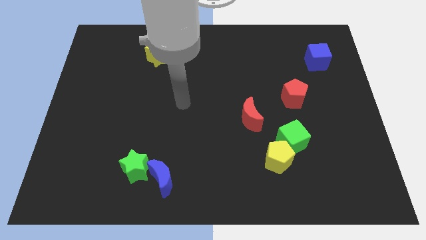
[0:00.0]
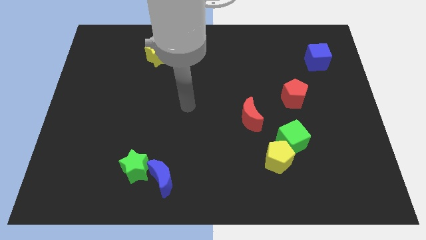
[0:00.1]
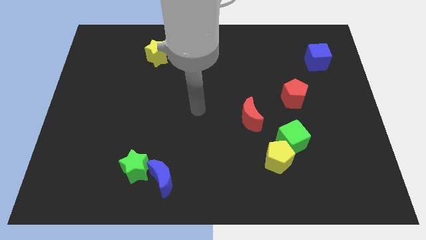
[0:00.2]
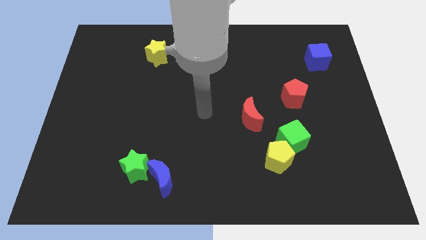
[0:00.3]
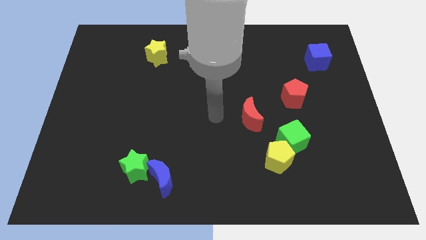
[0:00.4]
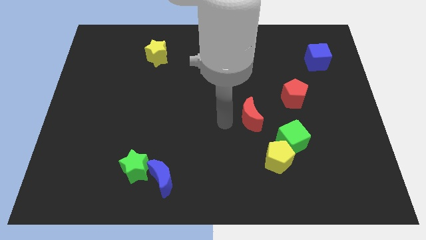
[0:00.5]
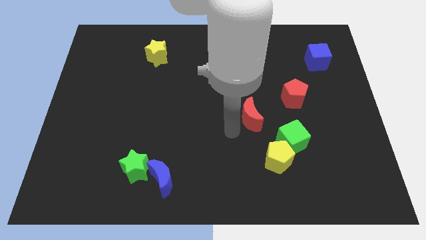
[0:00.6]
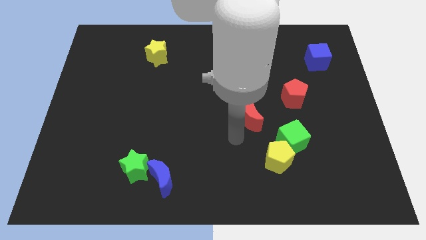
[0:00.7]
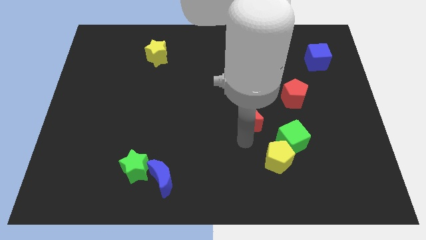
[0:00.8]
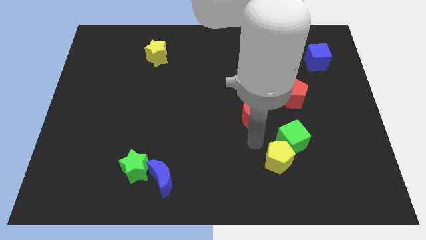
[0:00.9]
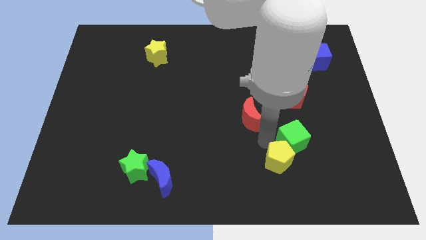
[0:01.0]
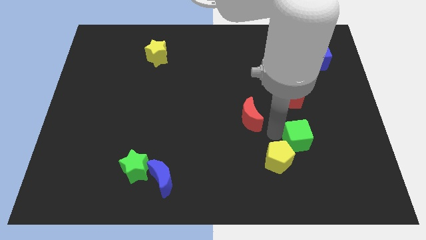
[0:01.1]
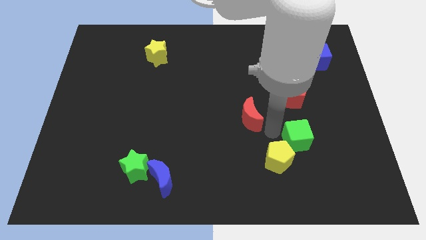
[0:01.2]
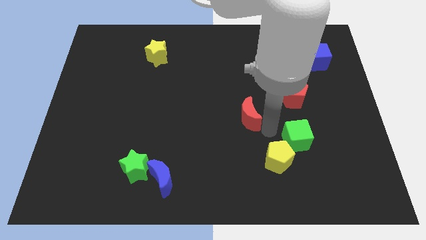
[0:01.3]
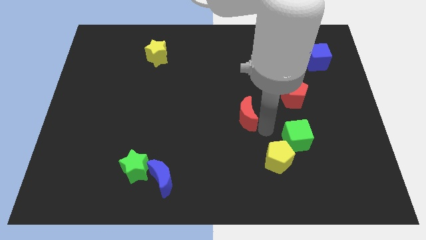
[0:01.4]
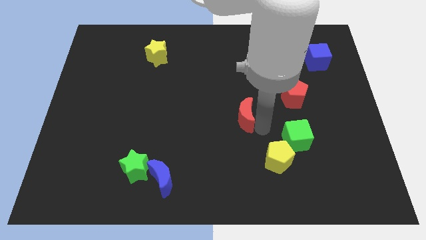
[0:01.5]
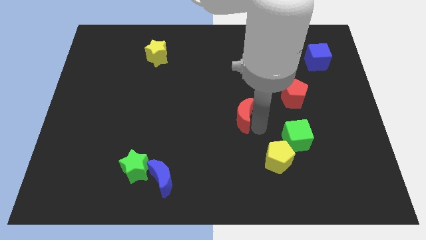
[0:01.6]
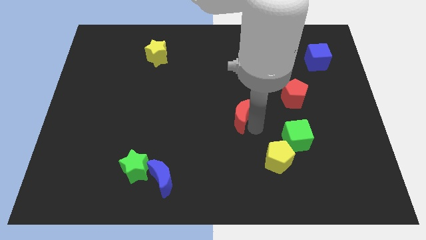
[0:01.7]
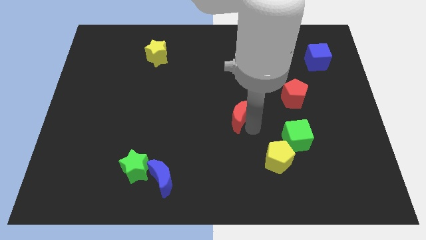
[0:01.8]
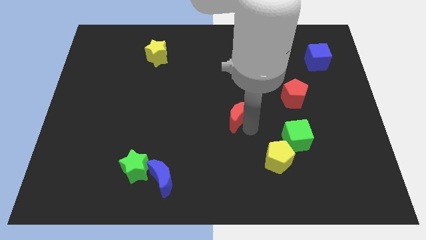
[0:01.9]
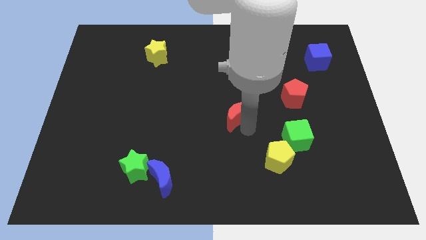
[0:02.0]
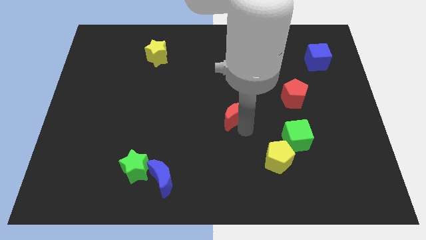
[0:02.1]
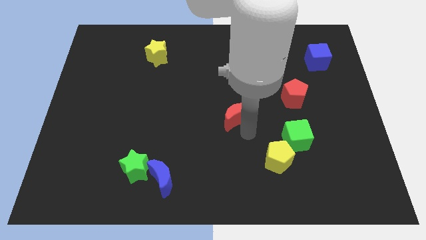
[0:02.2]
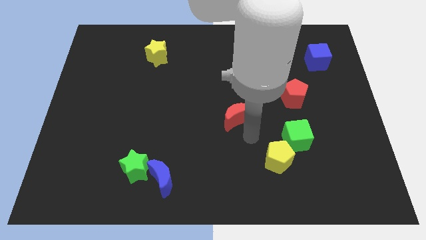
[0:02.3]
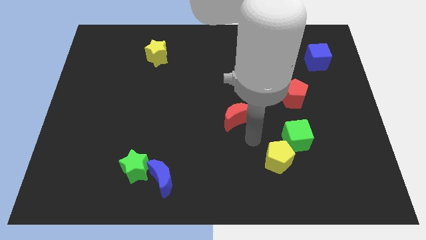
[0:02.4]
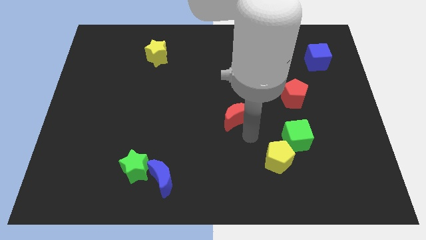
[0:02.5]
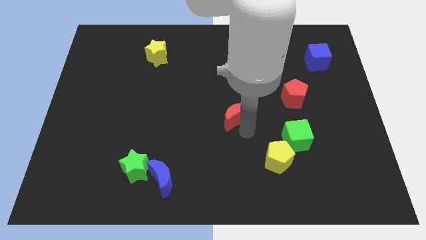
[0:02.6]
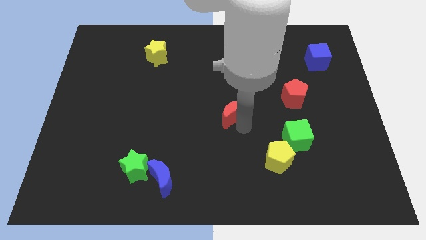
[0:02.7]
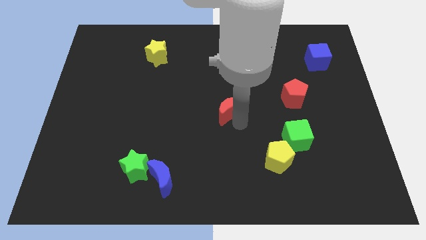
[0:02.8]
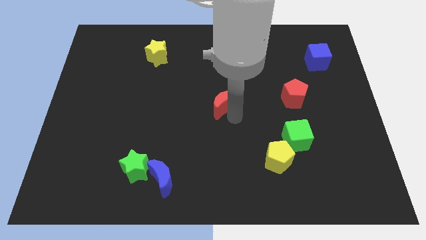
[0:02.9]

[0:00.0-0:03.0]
slightly slide the red moon upwards and to the left

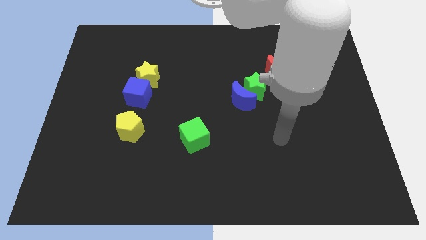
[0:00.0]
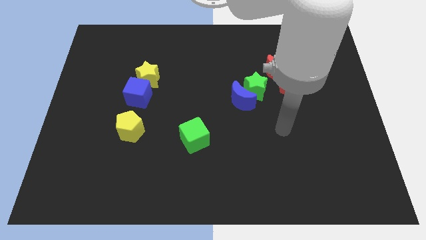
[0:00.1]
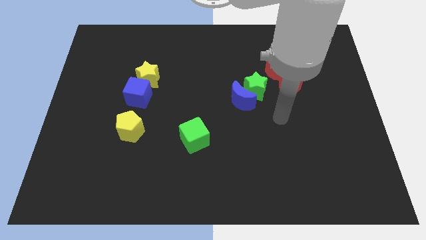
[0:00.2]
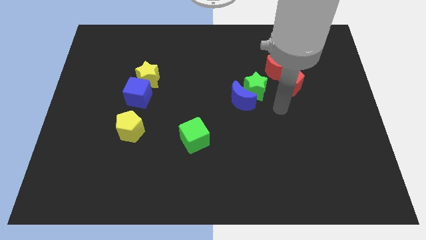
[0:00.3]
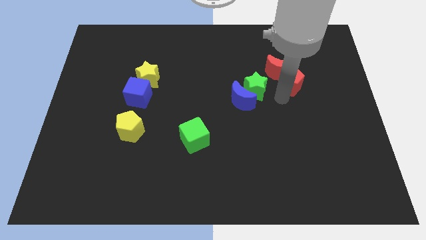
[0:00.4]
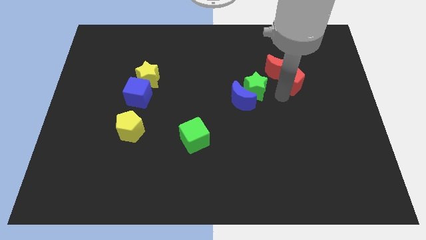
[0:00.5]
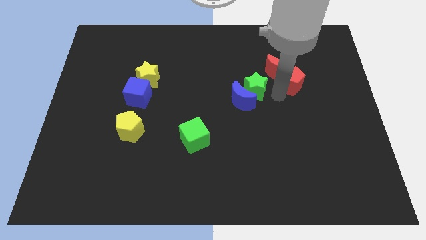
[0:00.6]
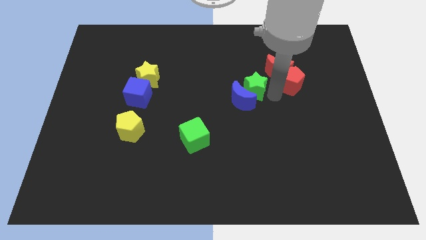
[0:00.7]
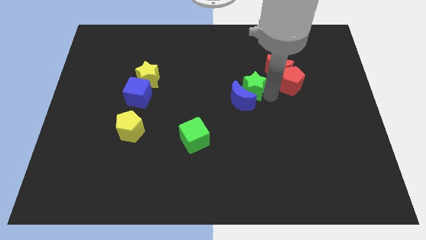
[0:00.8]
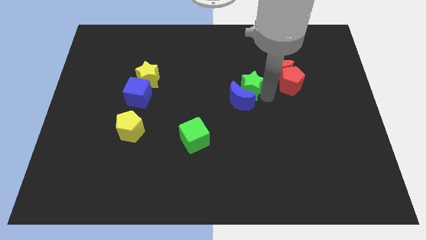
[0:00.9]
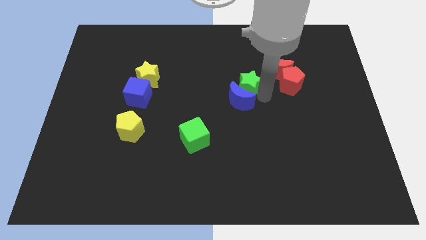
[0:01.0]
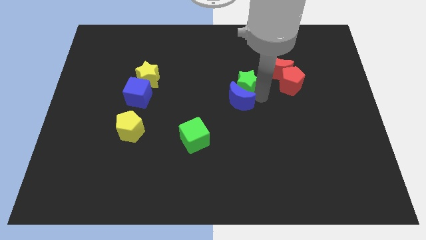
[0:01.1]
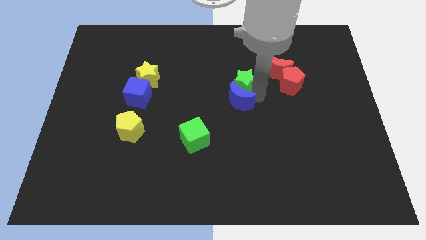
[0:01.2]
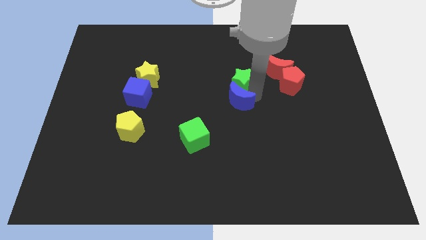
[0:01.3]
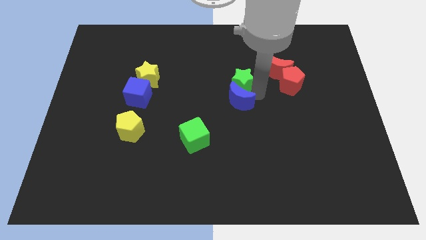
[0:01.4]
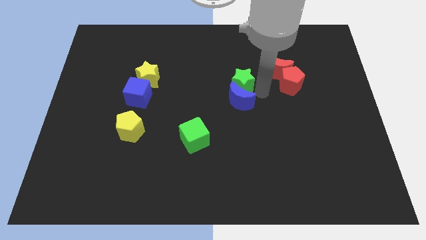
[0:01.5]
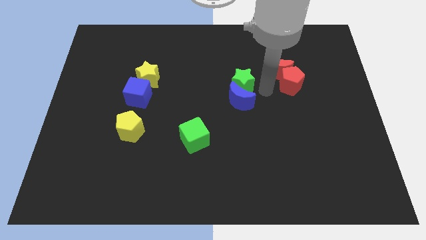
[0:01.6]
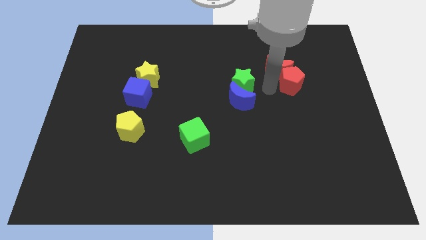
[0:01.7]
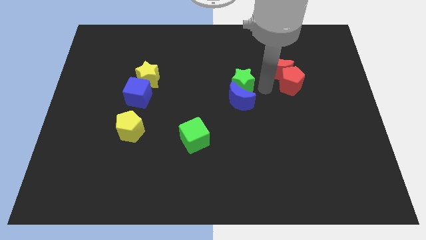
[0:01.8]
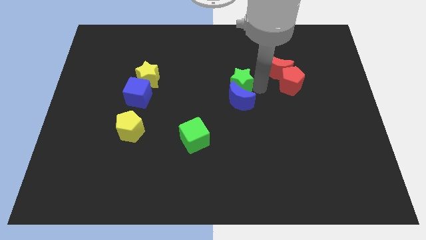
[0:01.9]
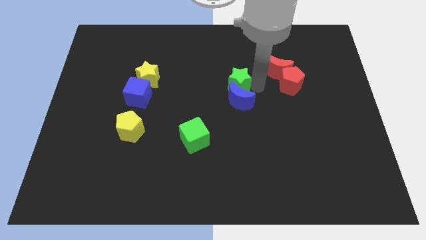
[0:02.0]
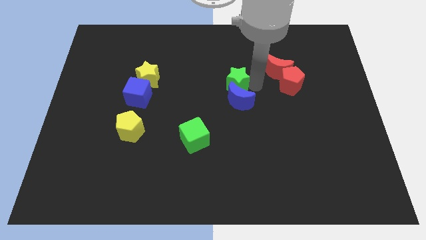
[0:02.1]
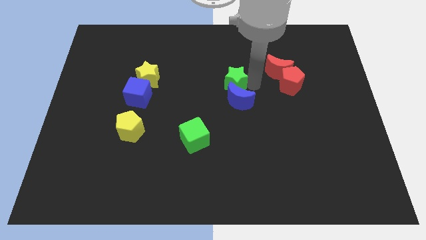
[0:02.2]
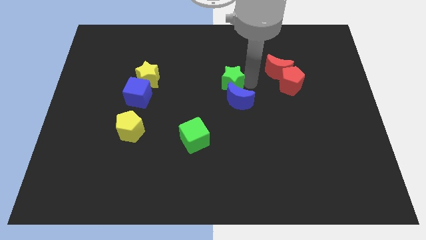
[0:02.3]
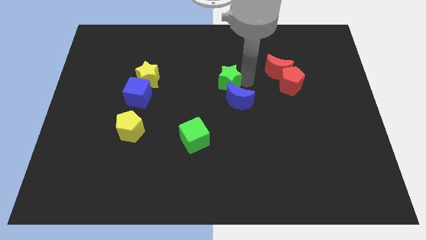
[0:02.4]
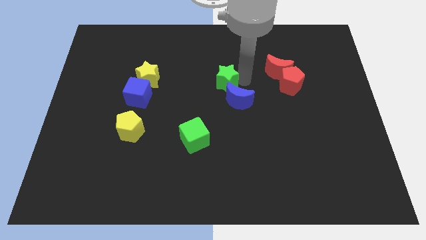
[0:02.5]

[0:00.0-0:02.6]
slide the green star a little left

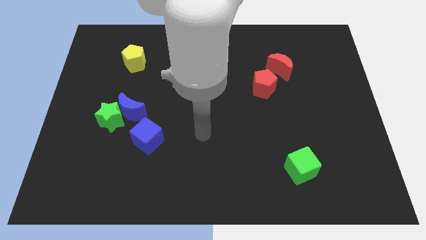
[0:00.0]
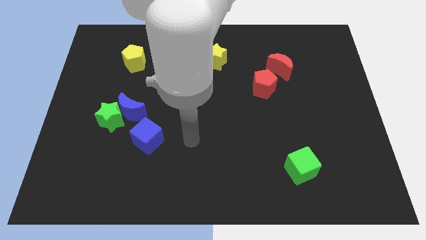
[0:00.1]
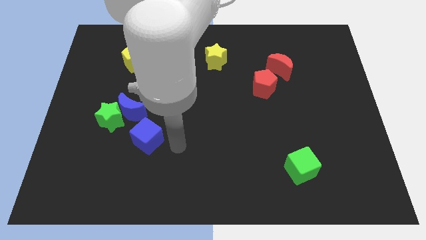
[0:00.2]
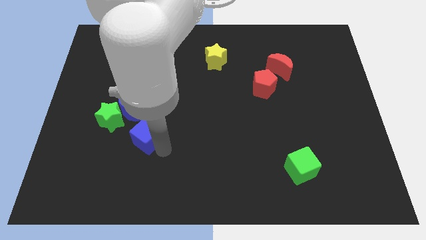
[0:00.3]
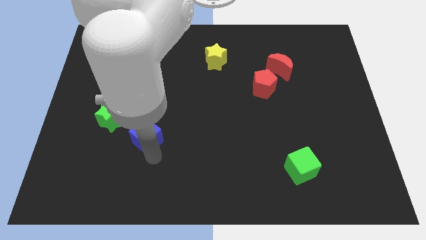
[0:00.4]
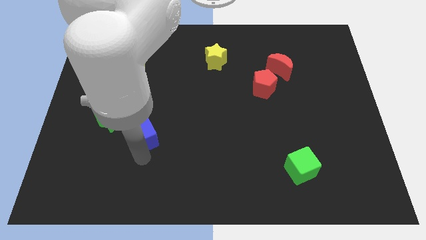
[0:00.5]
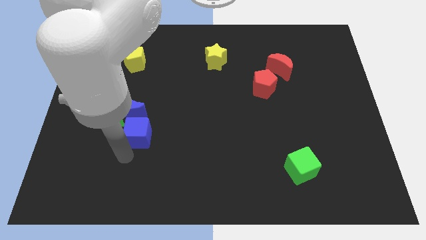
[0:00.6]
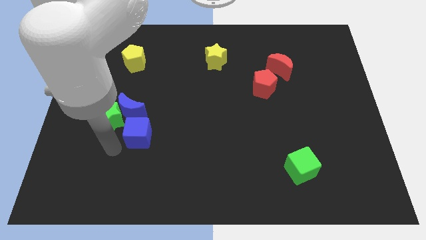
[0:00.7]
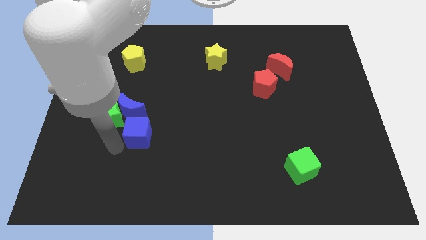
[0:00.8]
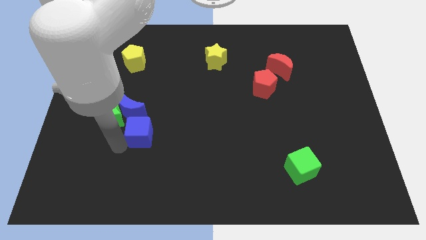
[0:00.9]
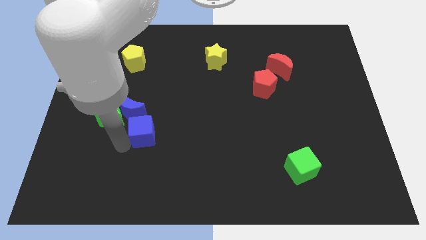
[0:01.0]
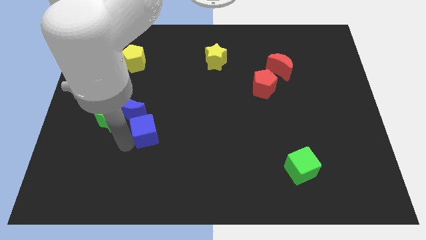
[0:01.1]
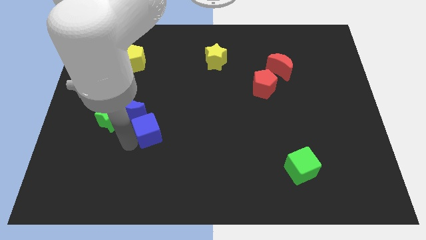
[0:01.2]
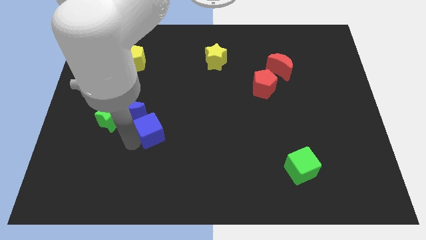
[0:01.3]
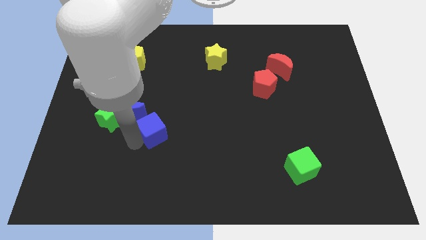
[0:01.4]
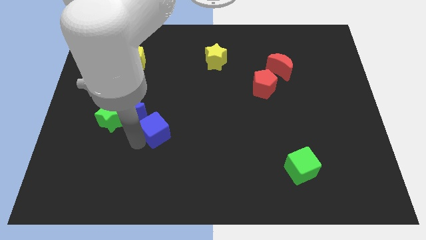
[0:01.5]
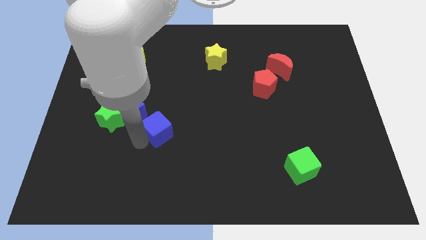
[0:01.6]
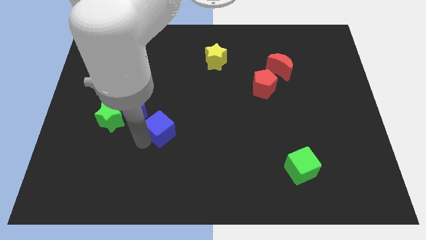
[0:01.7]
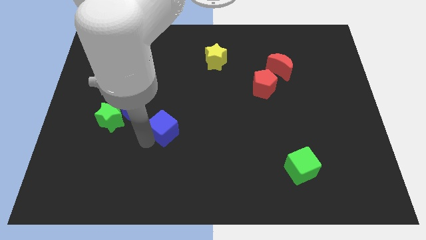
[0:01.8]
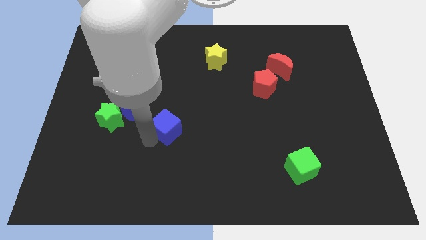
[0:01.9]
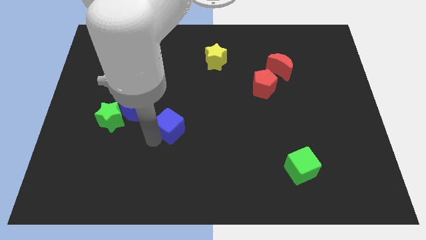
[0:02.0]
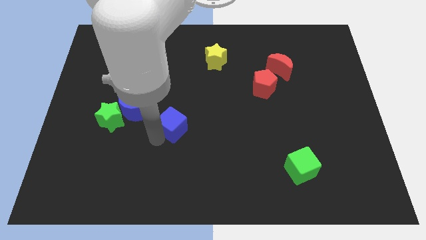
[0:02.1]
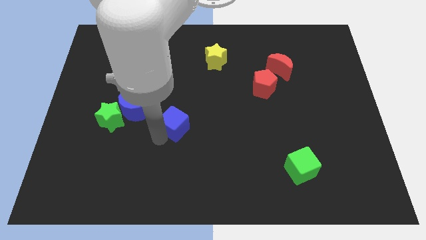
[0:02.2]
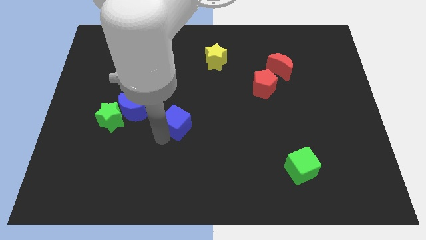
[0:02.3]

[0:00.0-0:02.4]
slightly move the blue cube up and right
